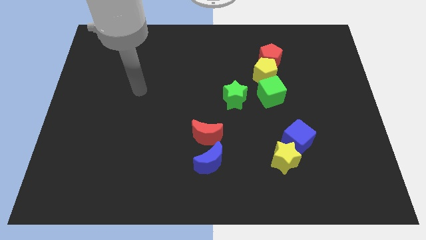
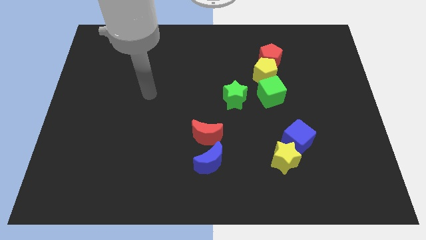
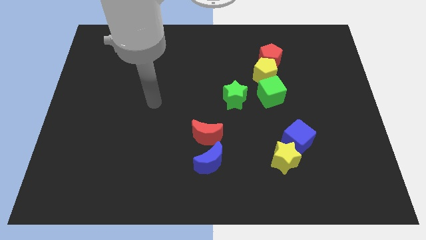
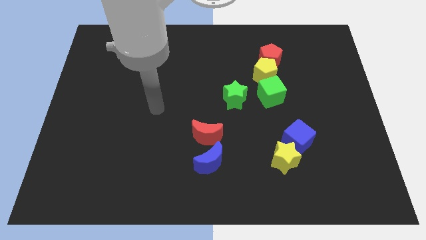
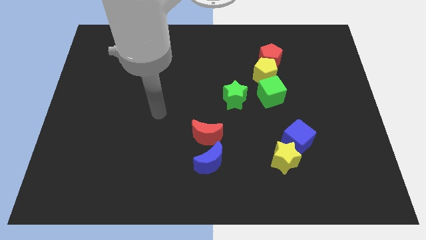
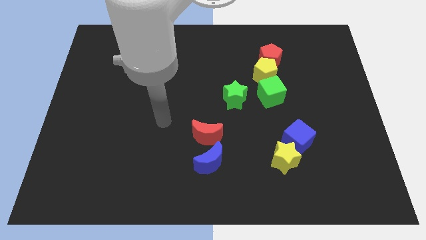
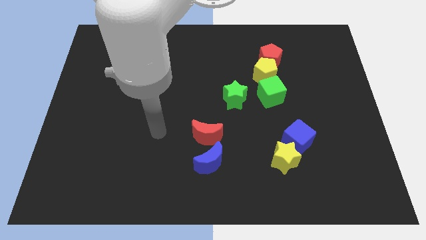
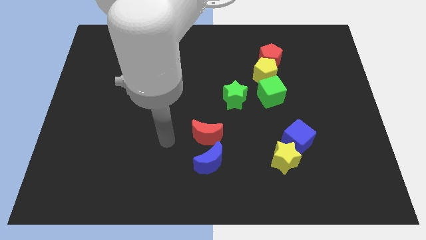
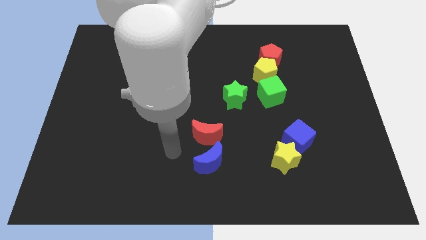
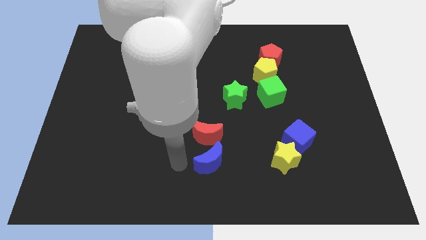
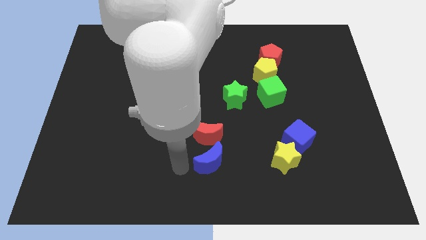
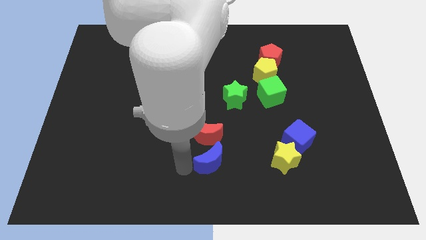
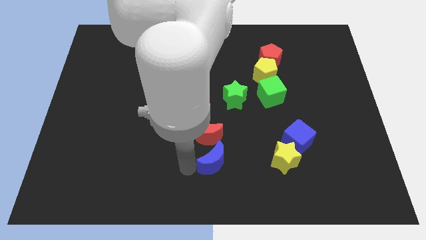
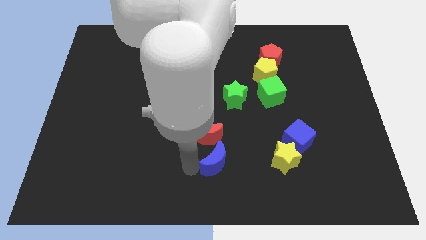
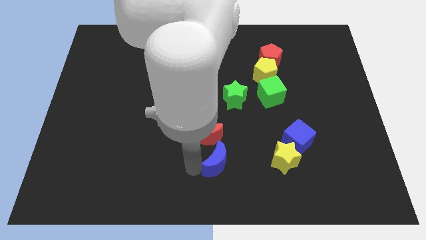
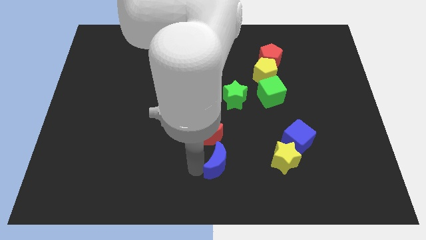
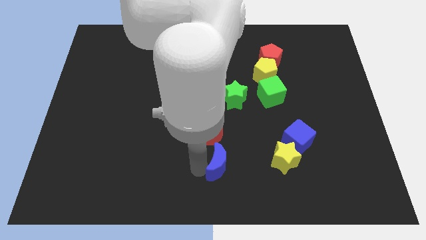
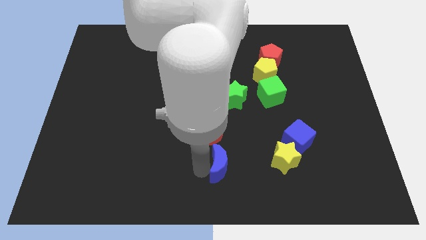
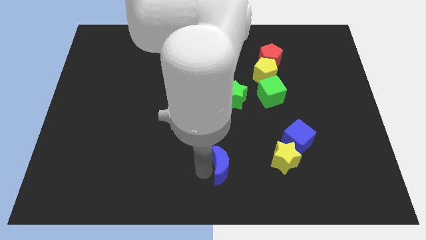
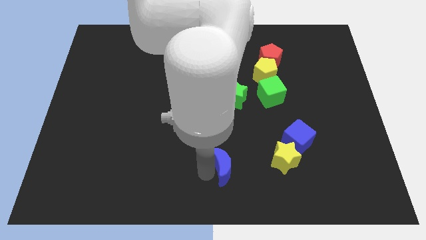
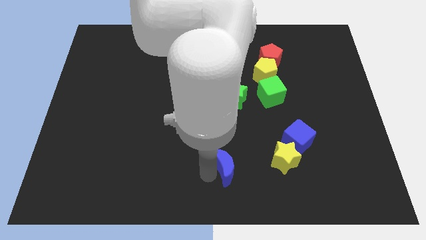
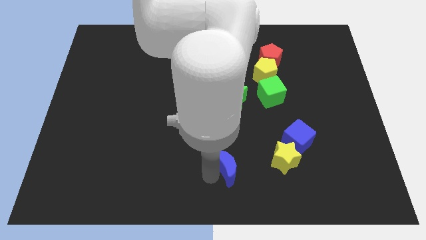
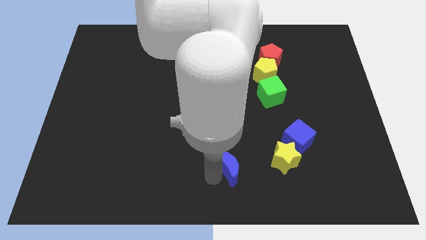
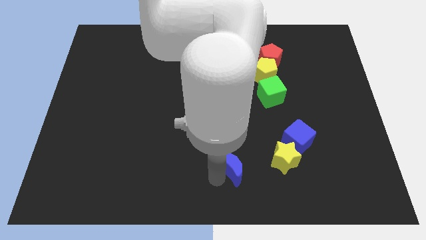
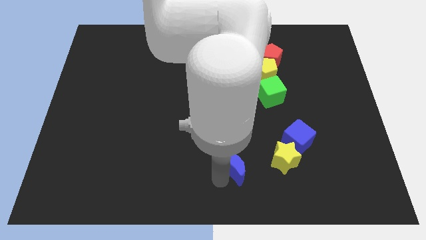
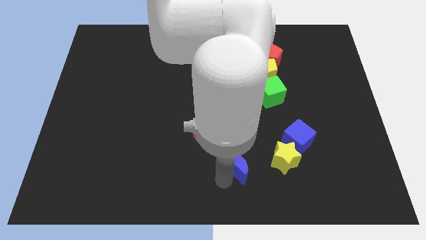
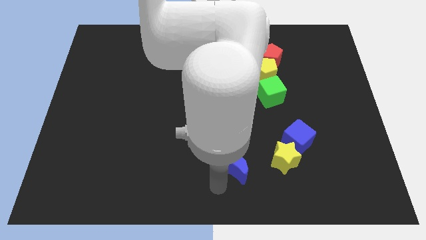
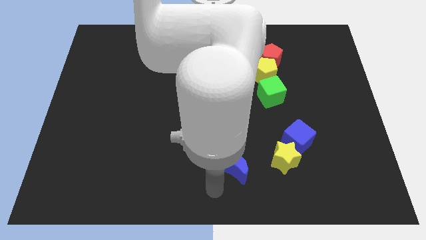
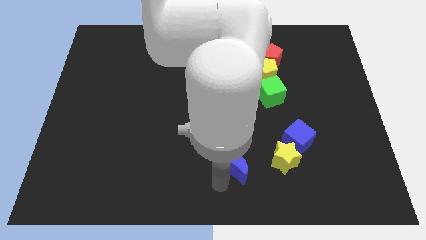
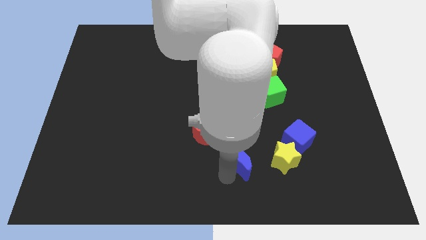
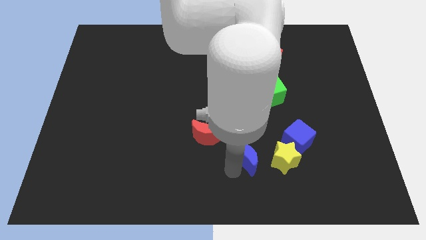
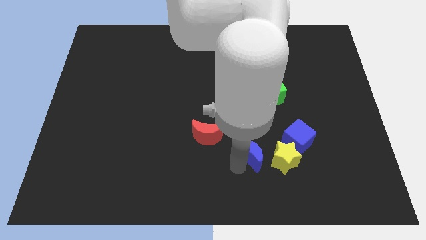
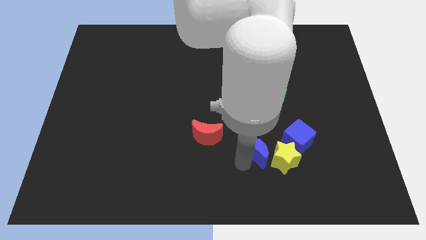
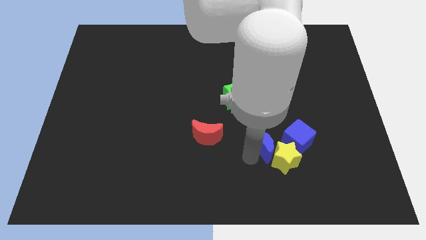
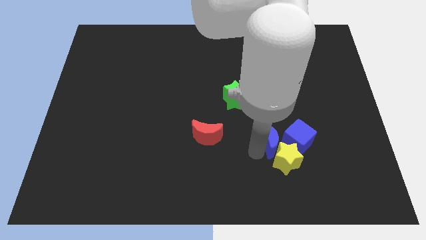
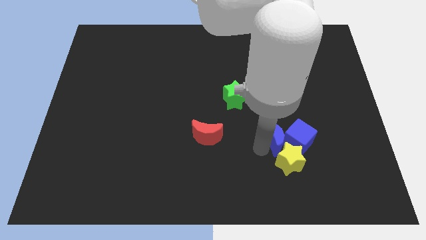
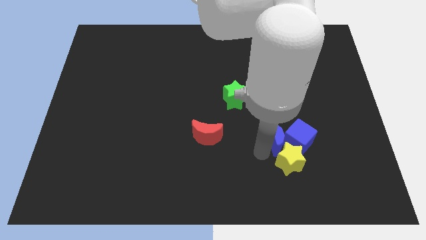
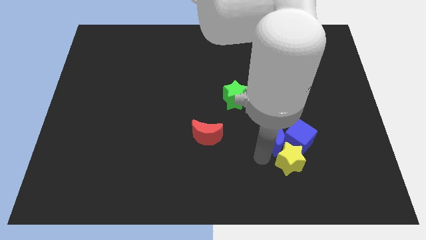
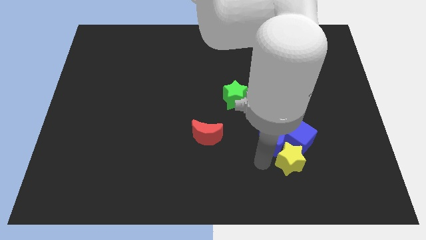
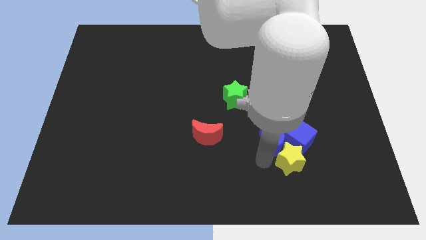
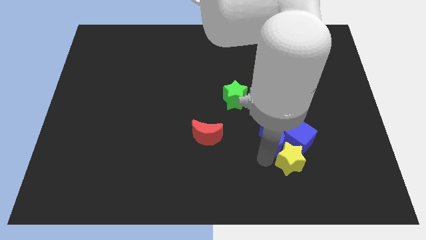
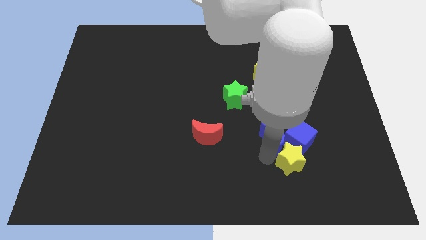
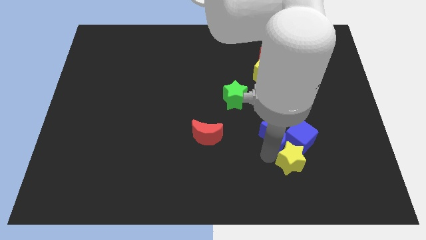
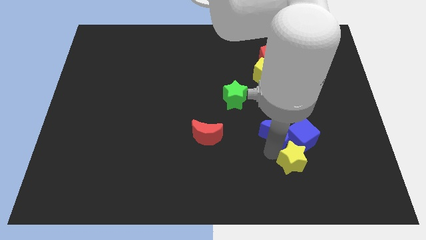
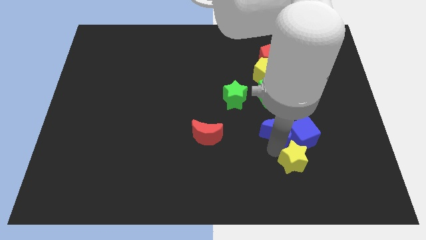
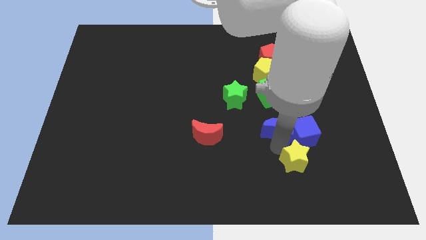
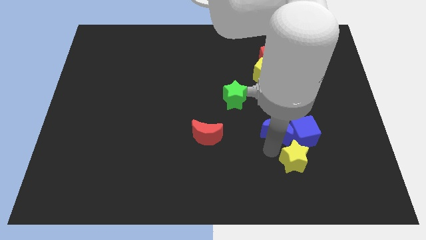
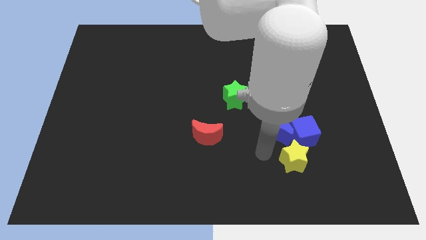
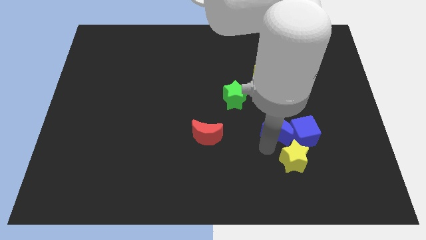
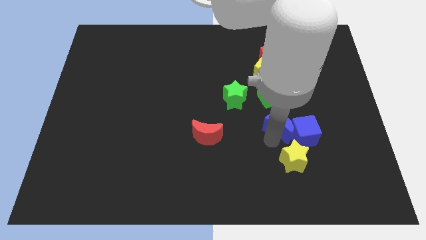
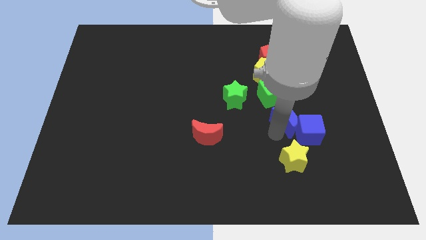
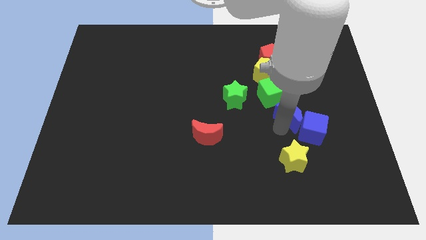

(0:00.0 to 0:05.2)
slide the blue moon diagonally upwards and right

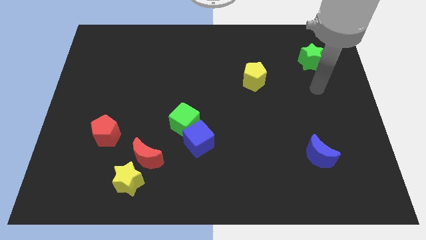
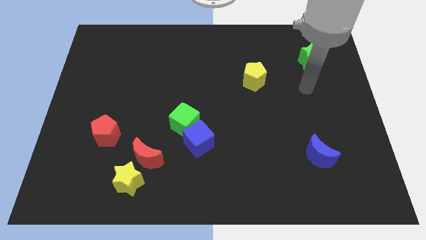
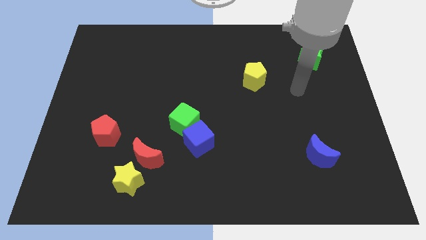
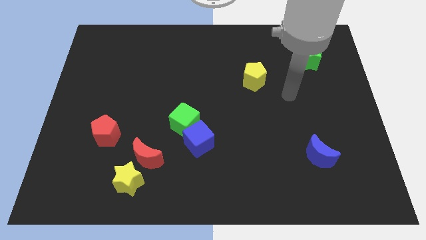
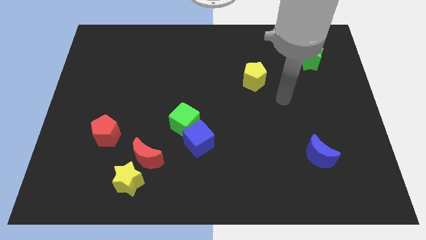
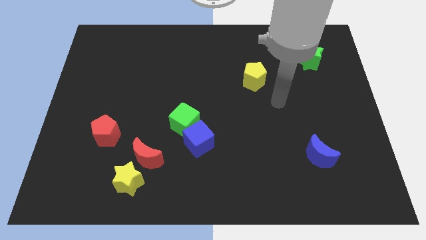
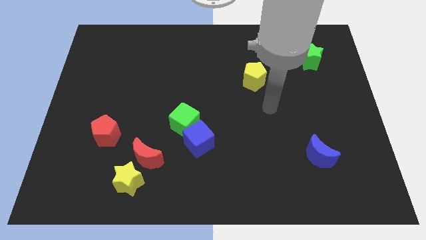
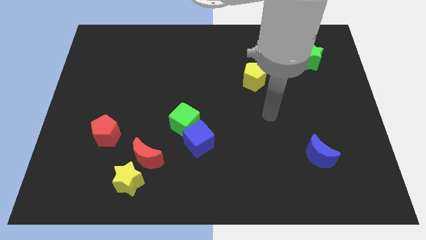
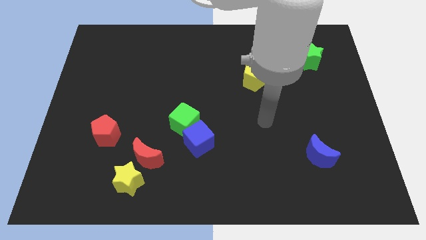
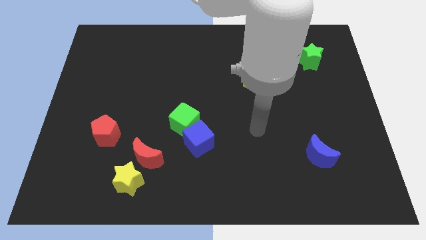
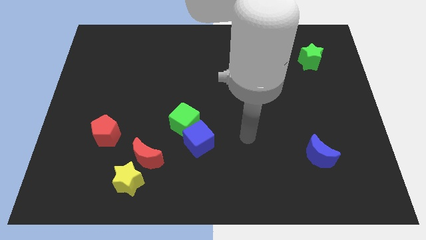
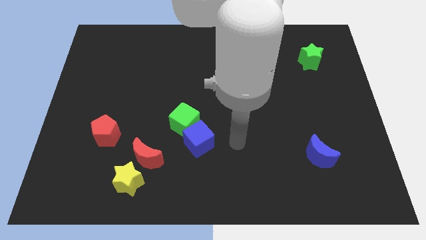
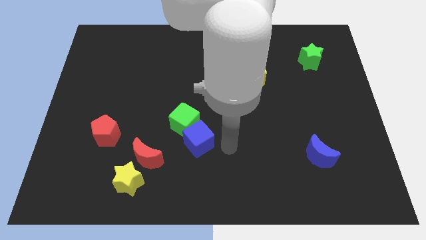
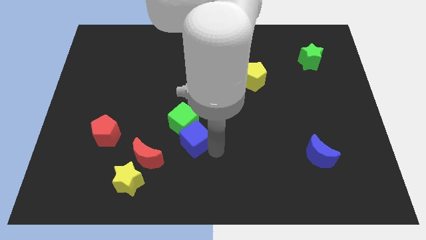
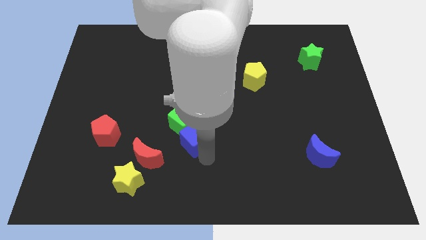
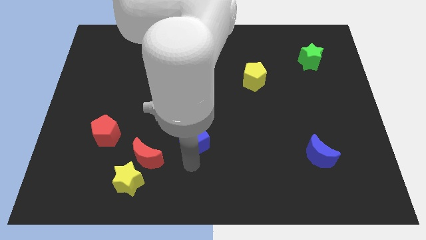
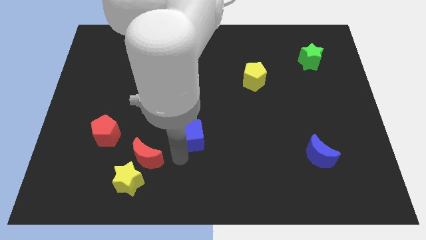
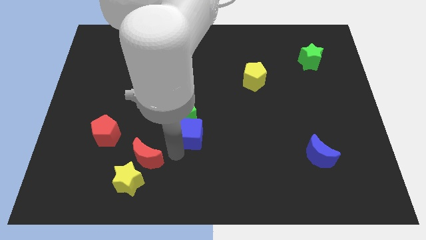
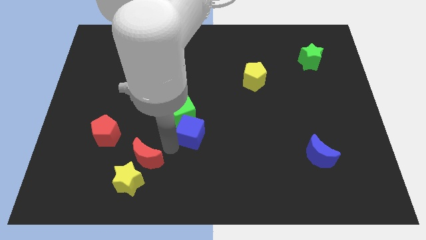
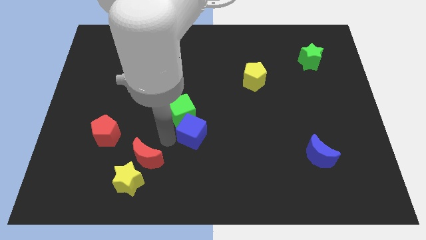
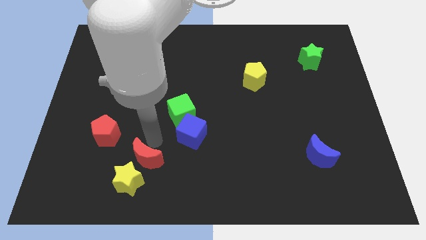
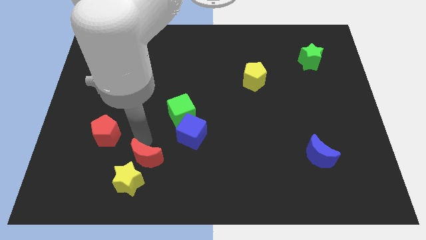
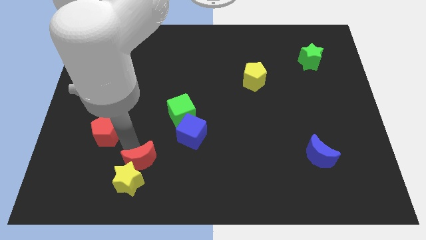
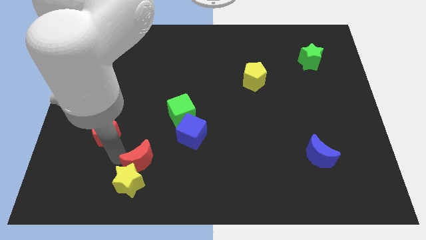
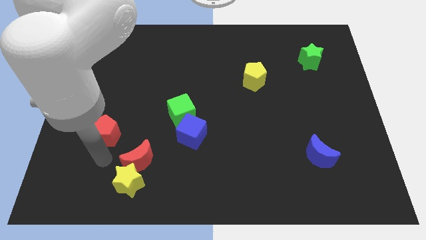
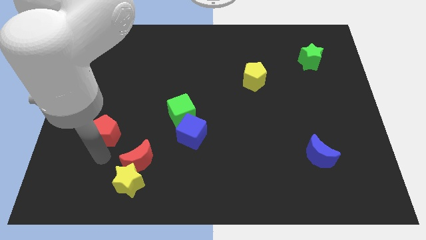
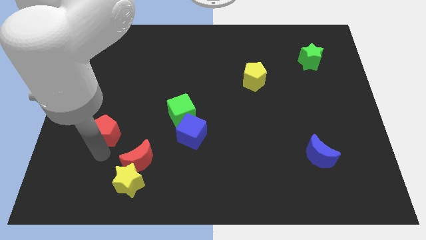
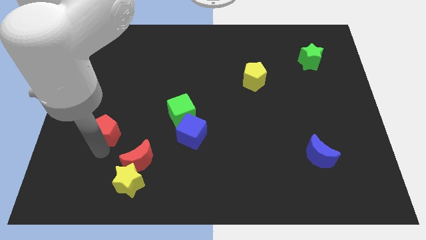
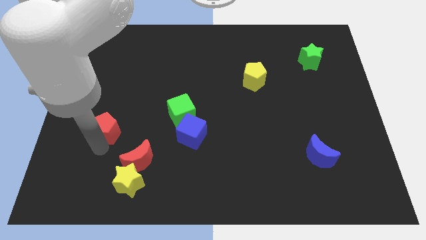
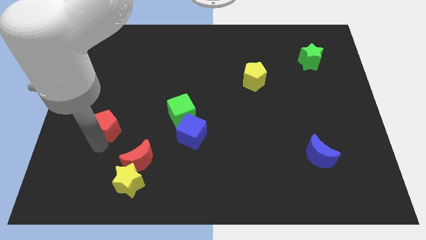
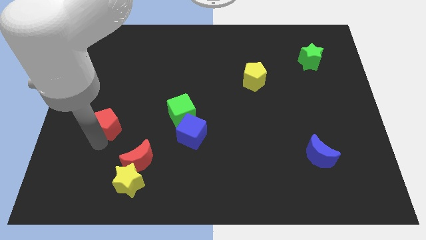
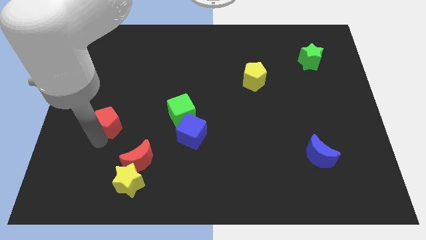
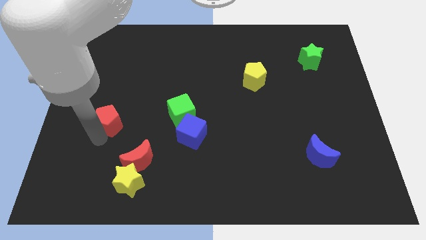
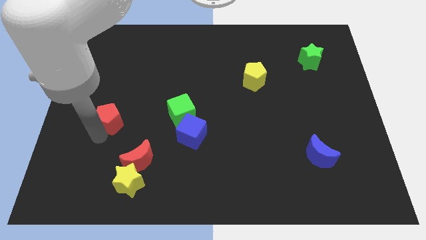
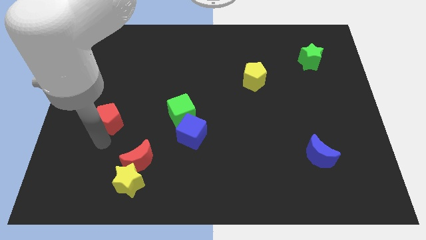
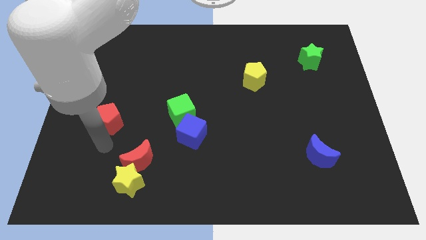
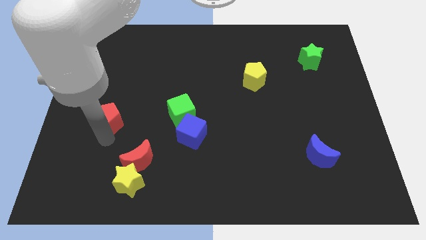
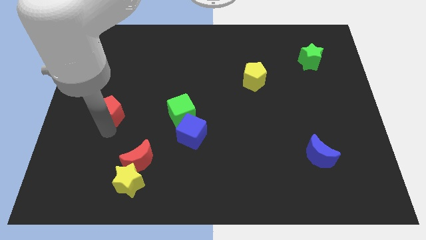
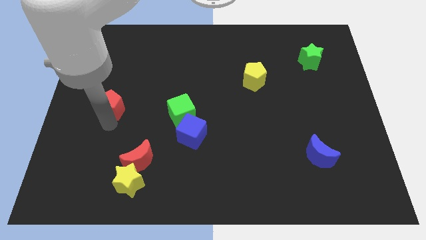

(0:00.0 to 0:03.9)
move the red pentagon a little upwards
